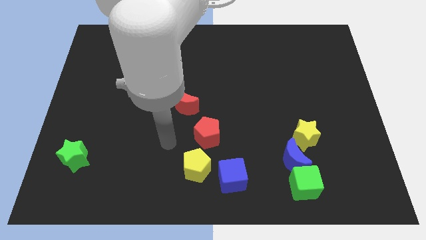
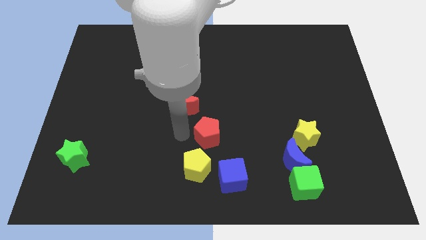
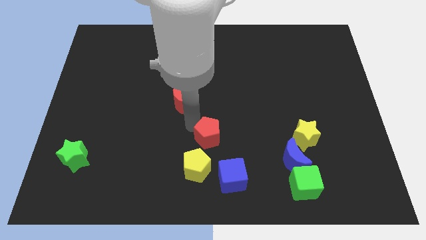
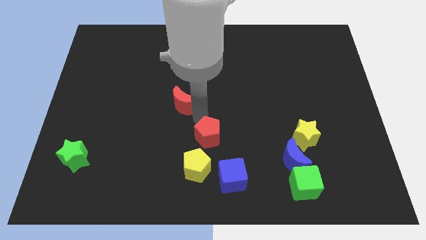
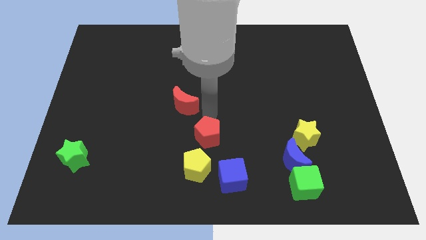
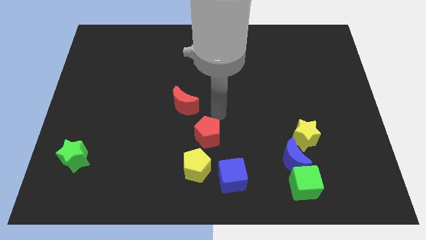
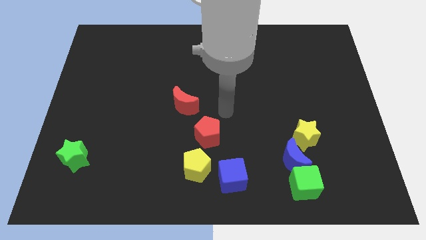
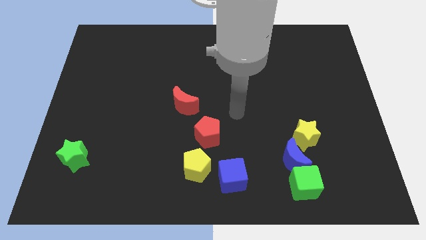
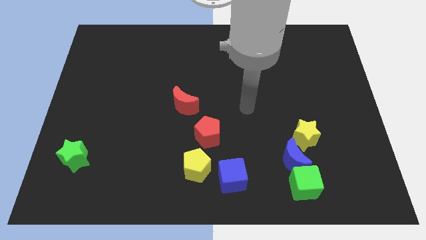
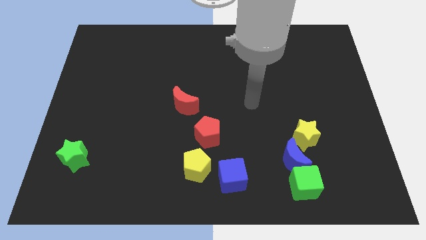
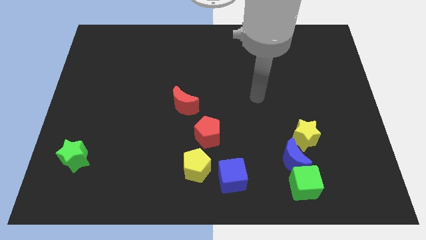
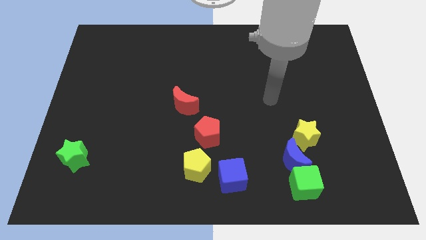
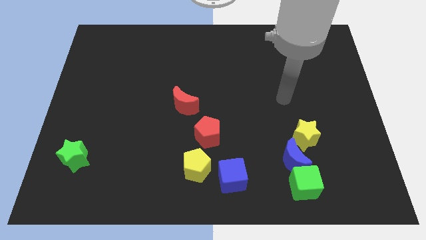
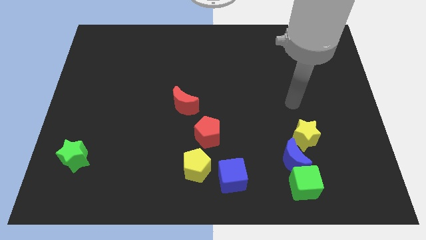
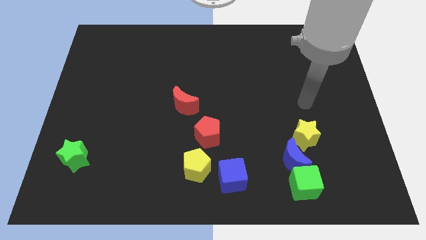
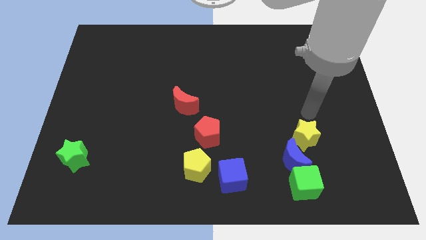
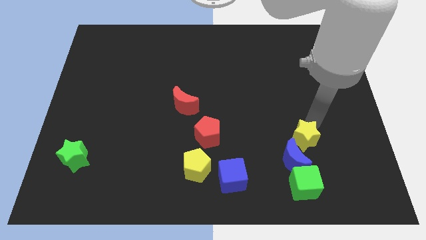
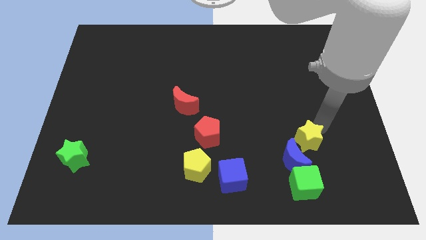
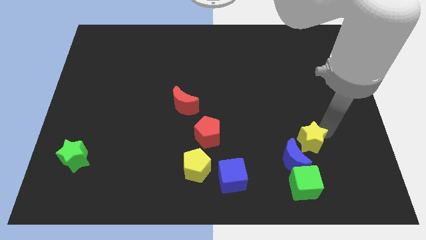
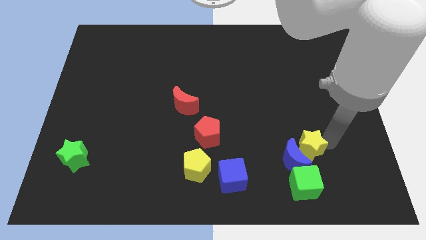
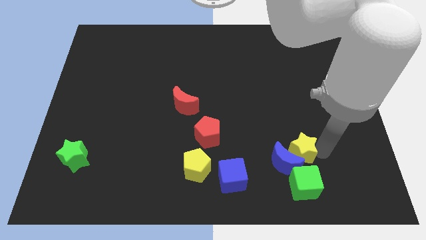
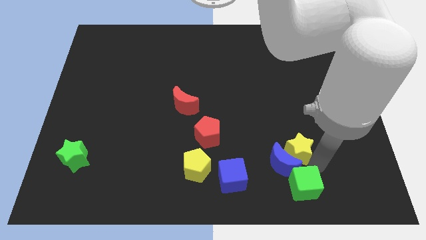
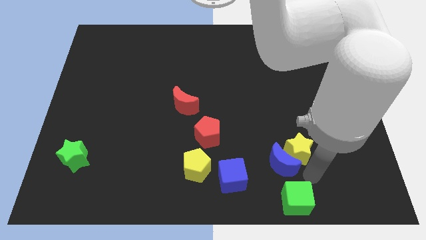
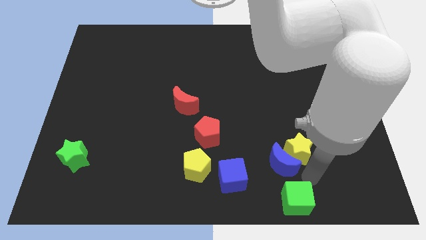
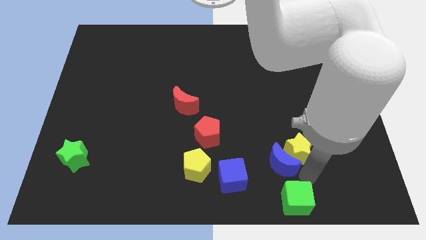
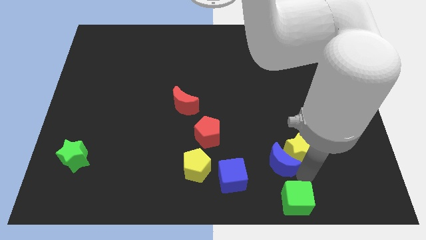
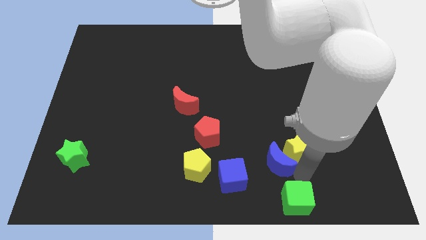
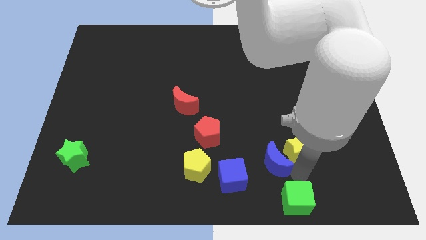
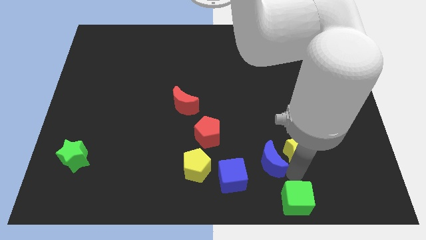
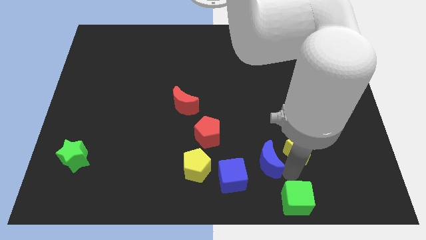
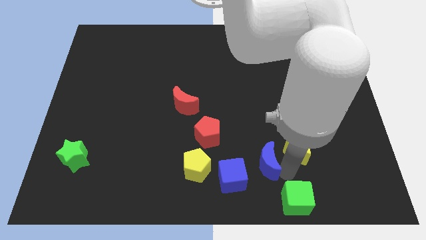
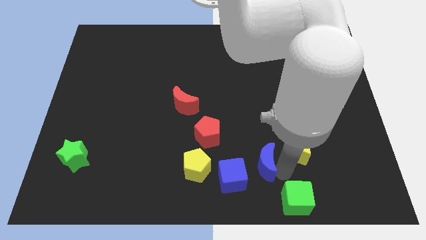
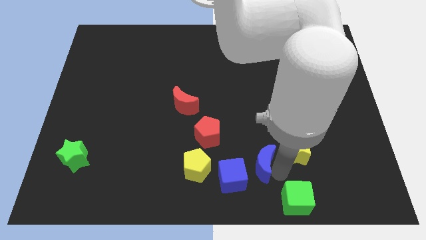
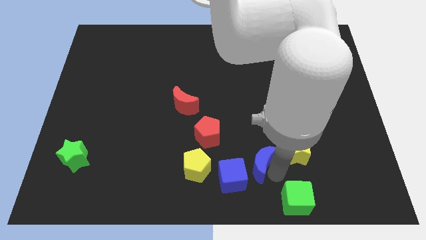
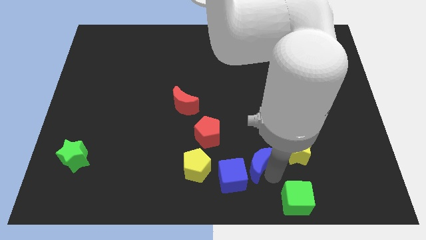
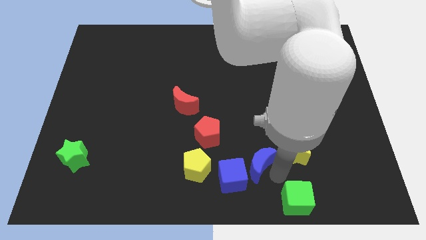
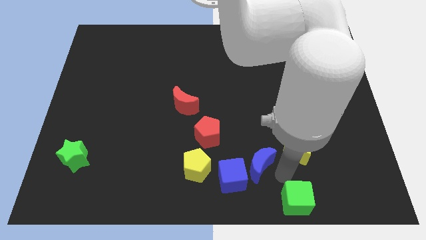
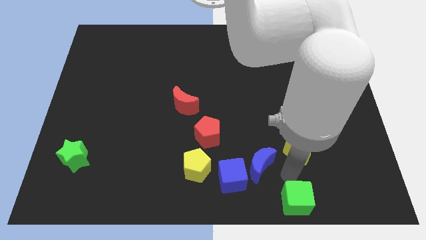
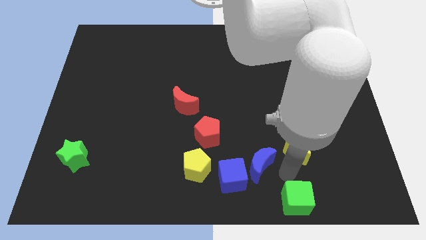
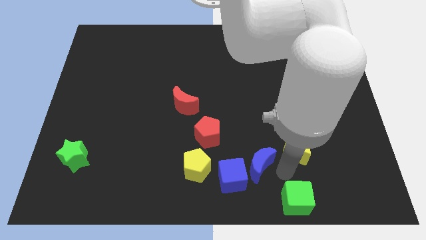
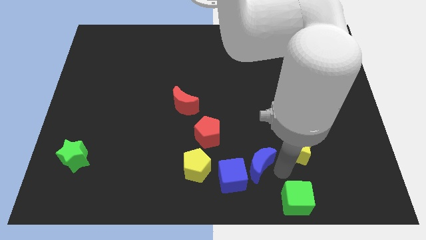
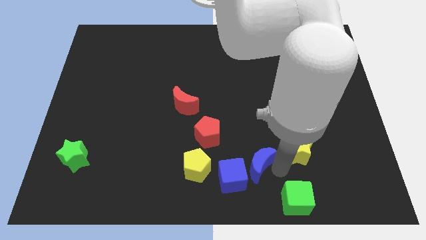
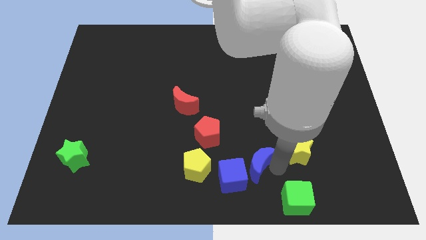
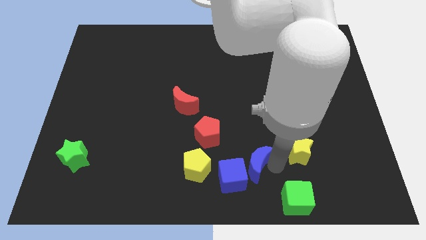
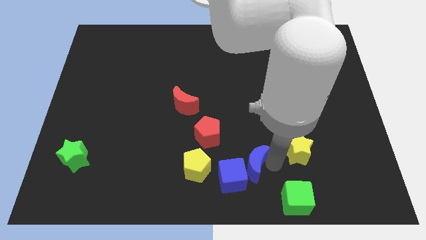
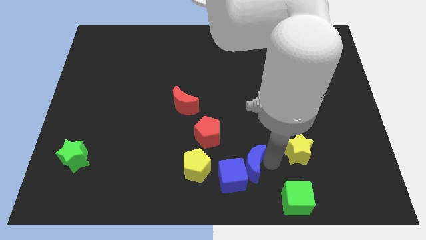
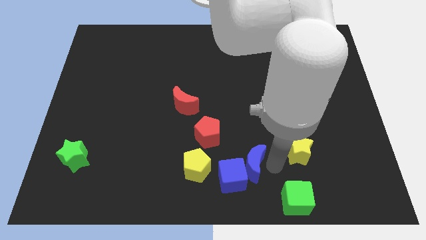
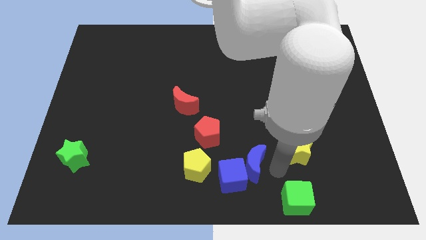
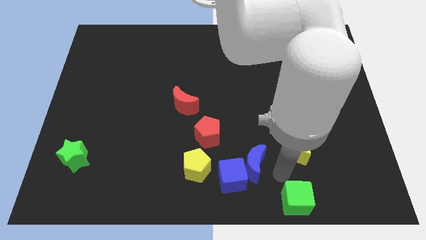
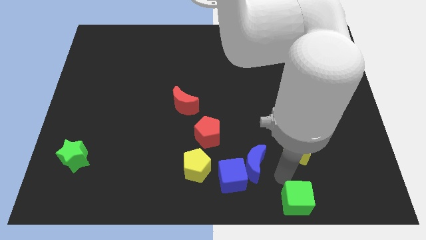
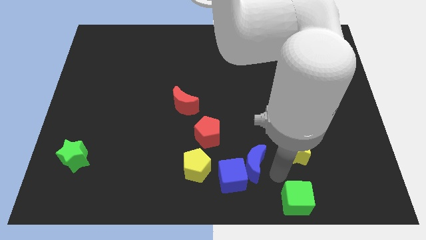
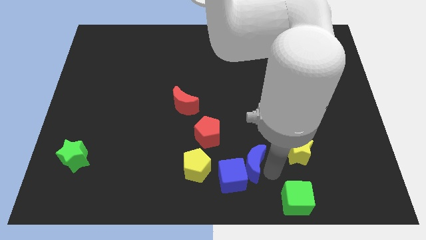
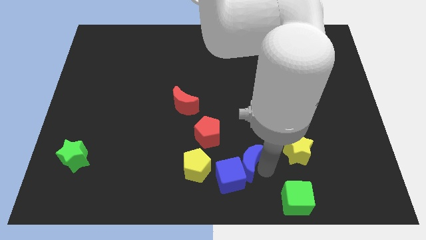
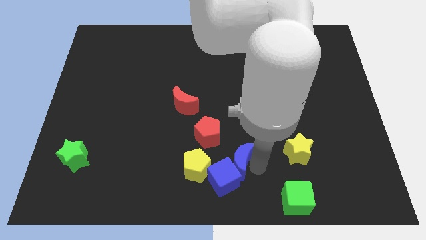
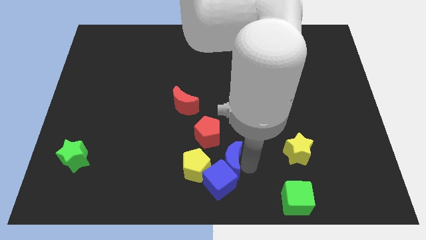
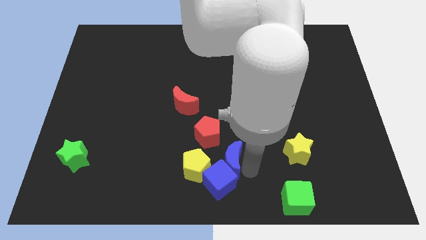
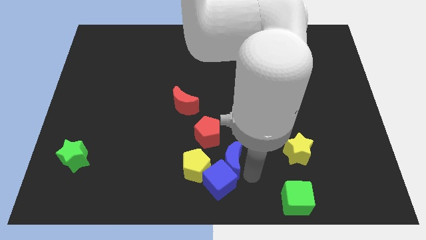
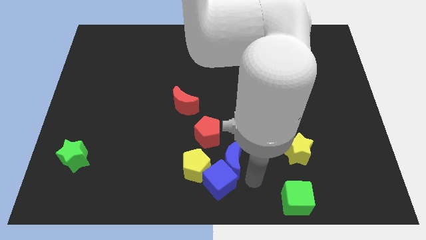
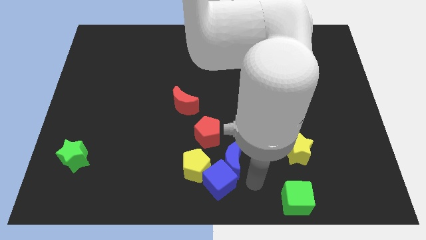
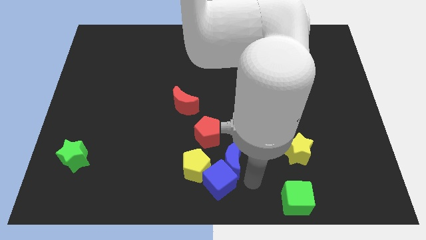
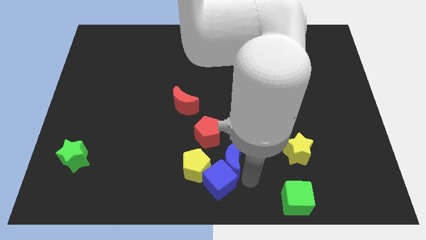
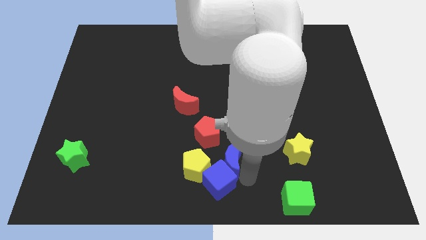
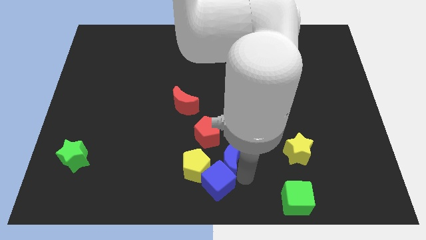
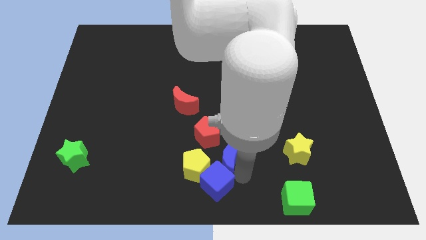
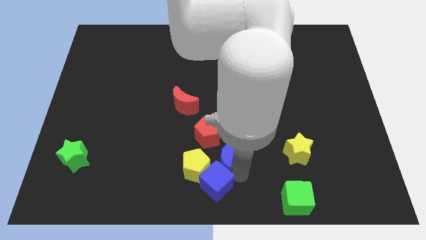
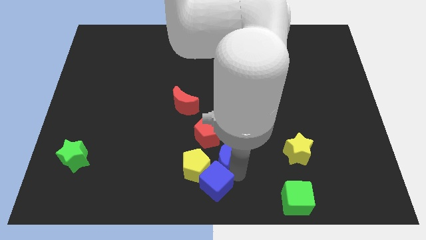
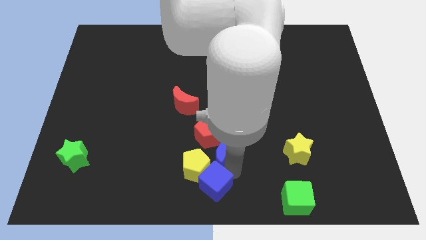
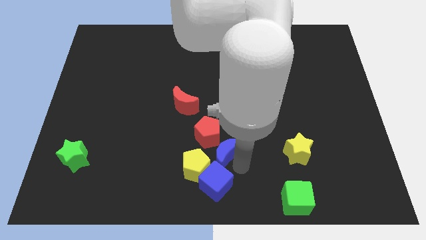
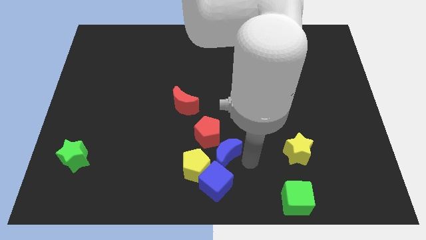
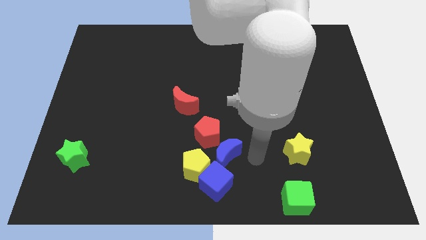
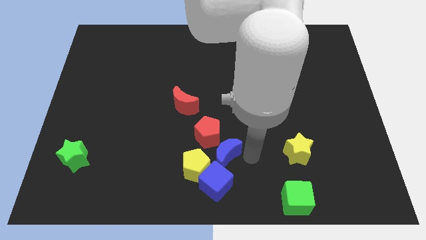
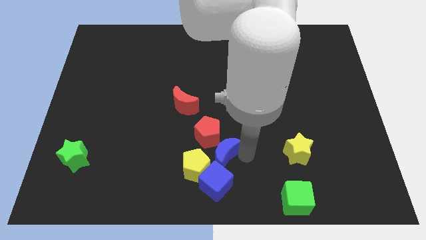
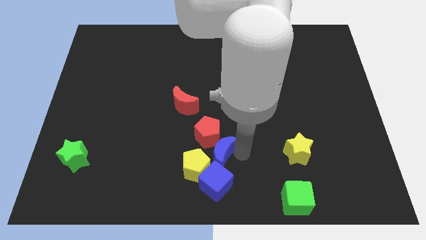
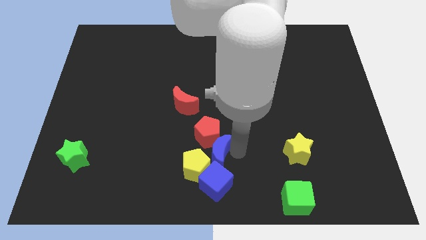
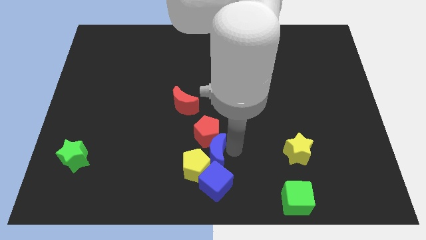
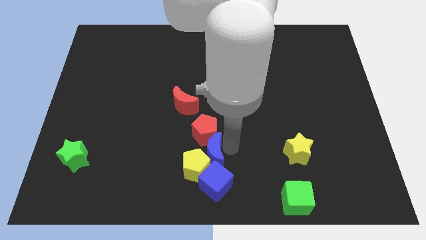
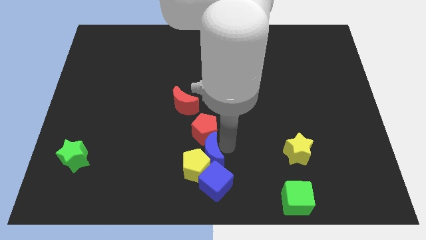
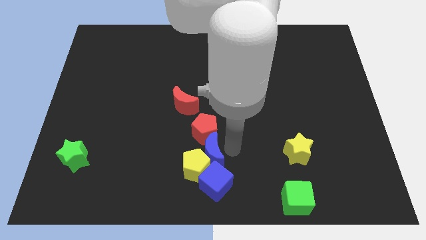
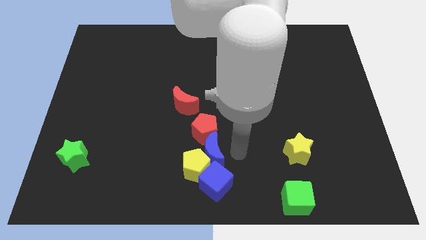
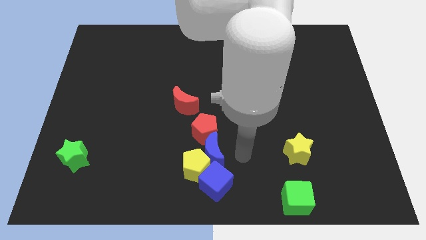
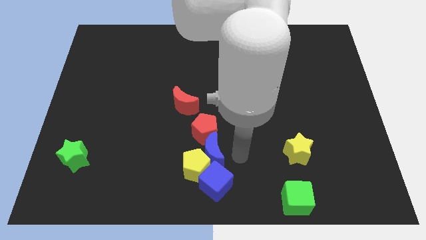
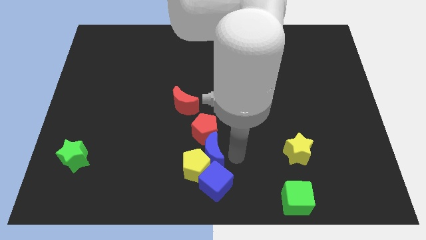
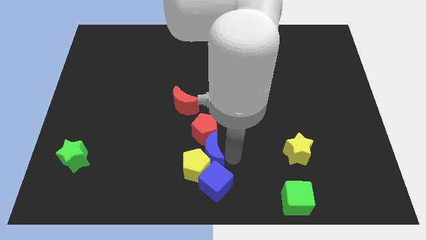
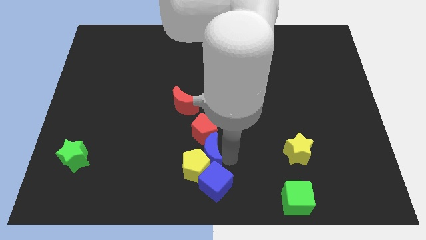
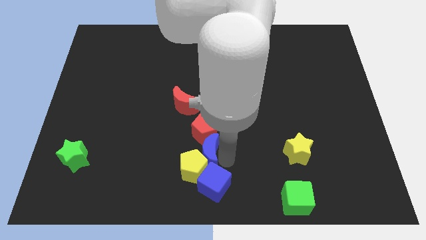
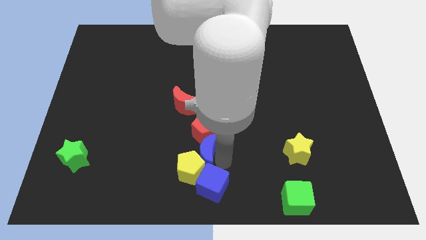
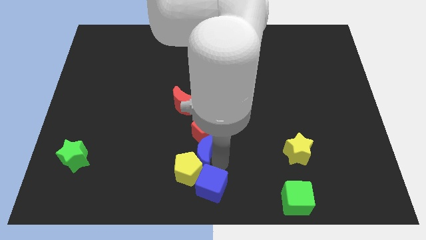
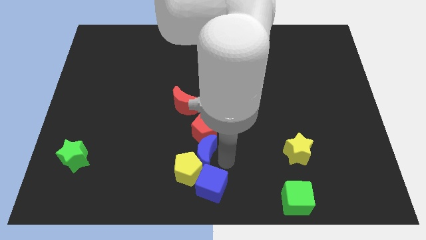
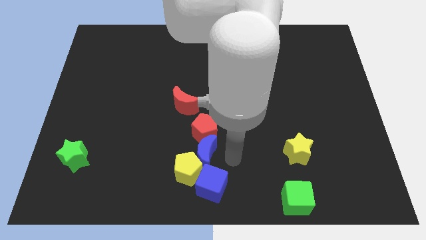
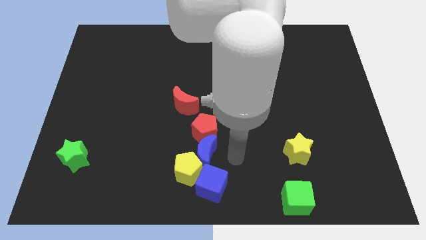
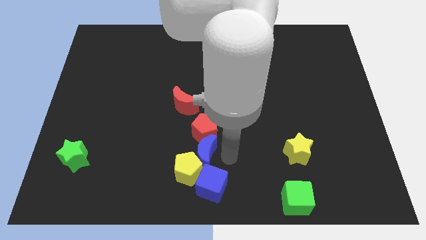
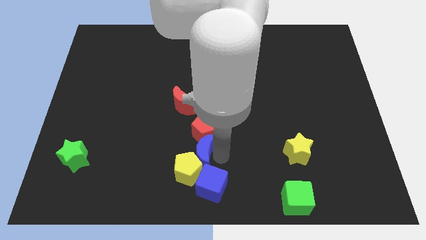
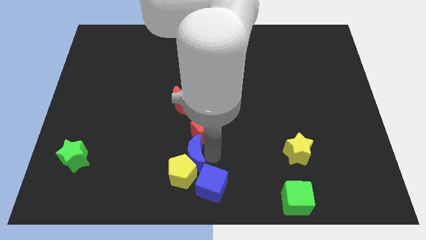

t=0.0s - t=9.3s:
move the blue moon to the left
